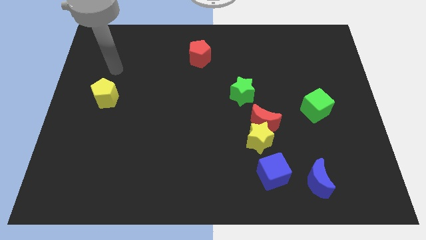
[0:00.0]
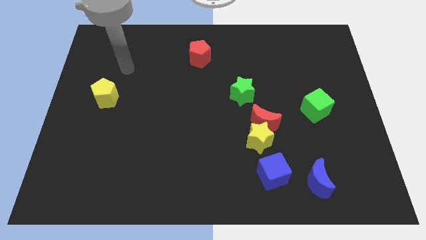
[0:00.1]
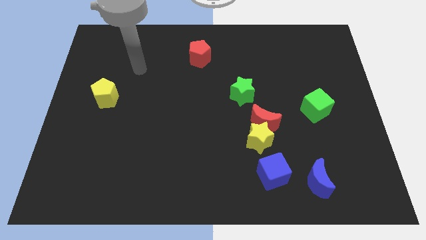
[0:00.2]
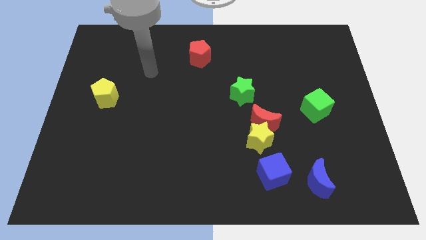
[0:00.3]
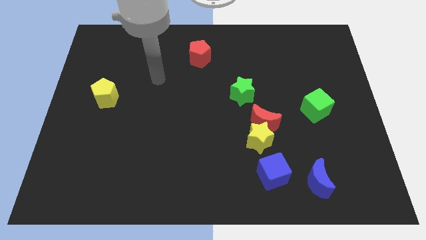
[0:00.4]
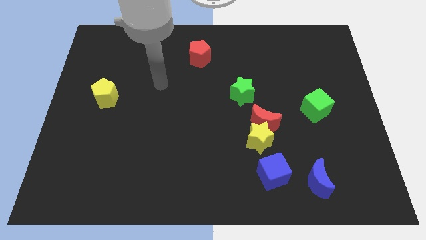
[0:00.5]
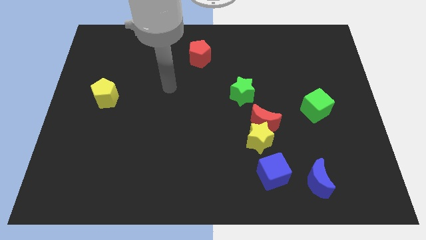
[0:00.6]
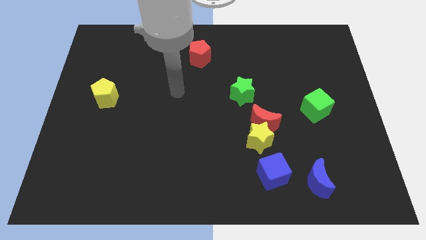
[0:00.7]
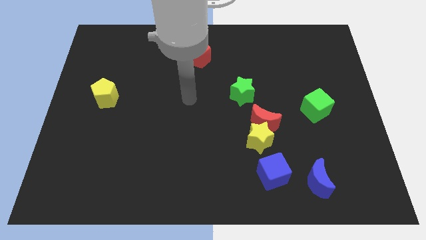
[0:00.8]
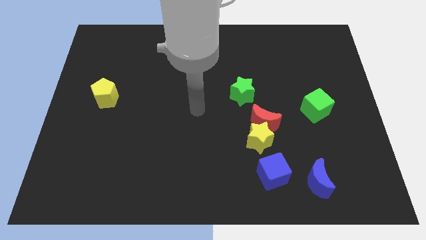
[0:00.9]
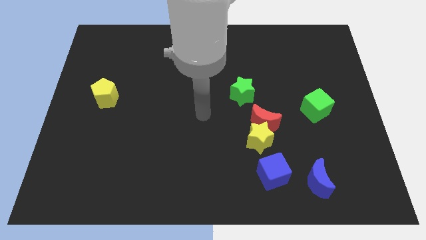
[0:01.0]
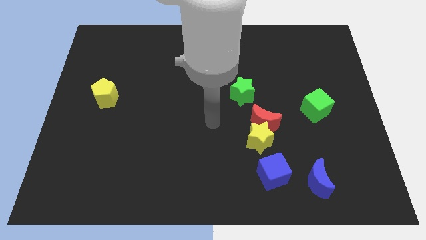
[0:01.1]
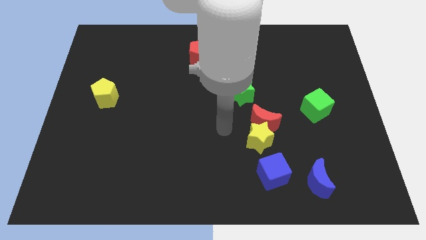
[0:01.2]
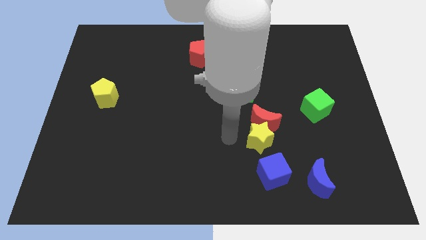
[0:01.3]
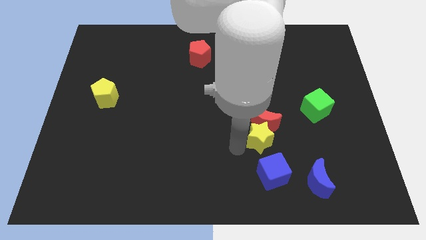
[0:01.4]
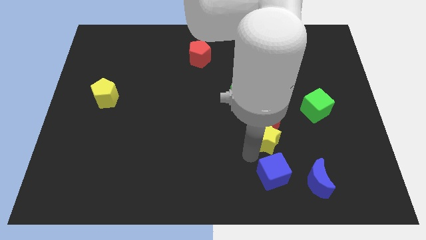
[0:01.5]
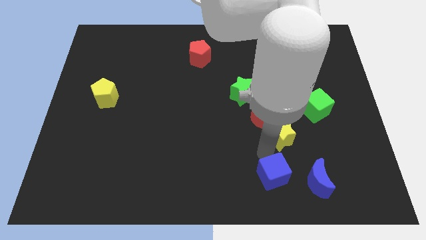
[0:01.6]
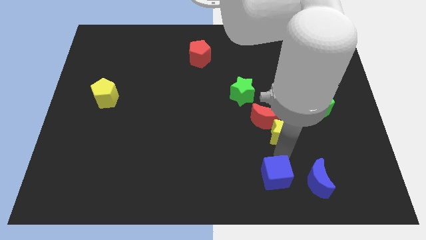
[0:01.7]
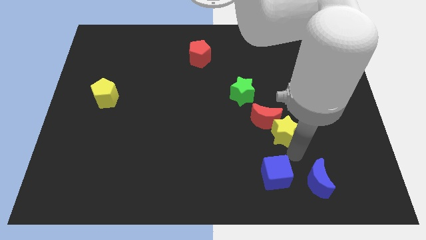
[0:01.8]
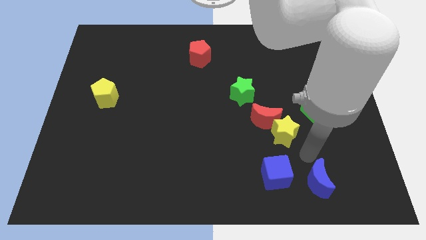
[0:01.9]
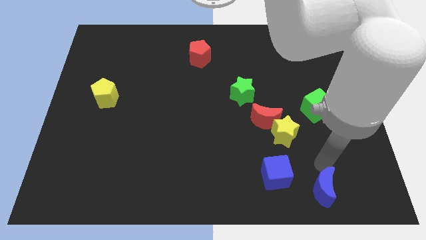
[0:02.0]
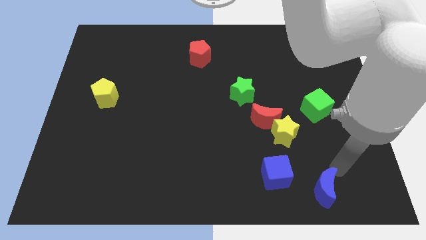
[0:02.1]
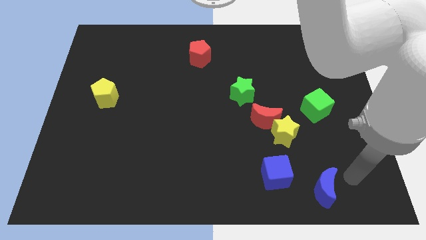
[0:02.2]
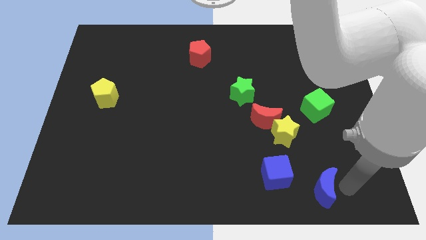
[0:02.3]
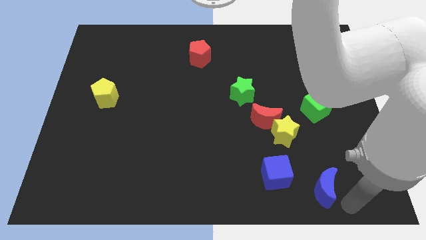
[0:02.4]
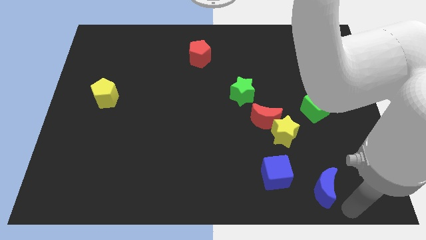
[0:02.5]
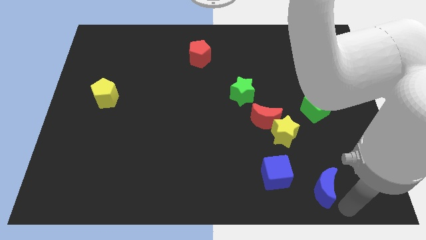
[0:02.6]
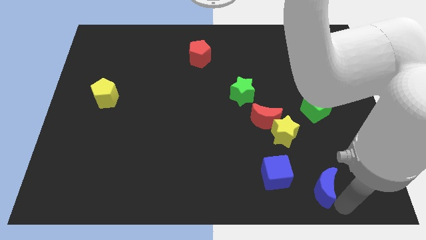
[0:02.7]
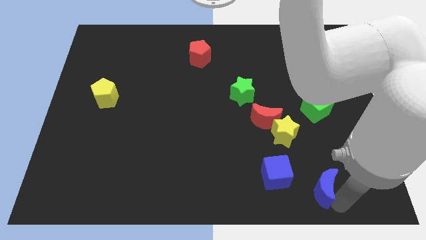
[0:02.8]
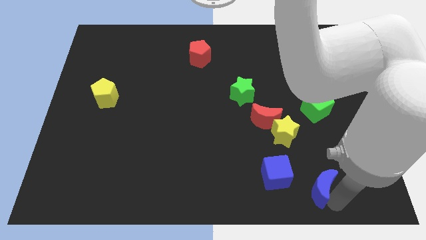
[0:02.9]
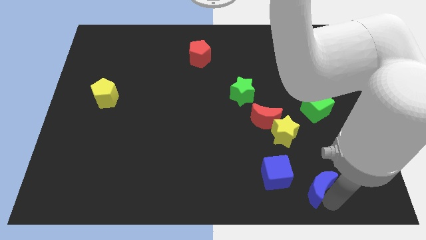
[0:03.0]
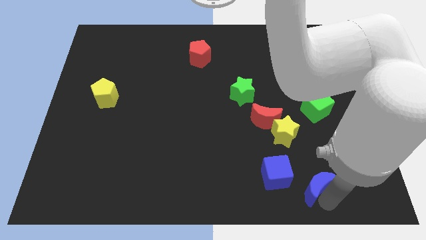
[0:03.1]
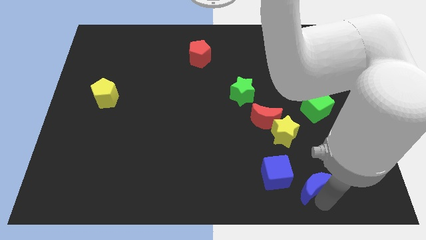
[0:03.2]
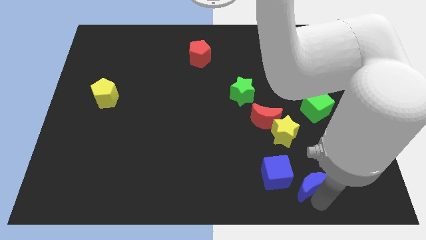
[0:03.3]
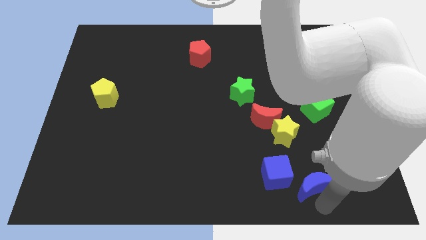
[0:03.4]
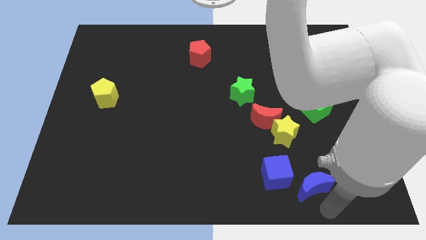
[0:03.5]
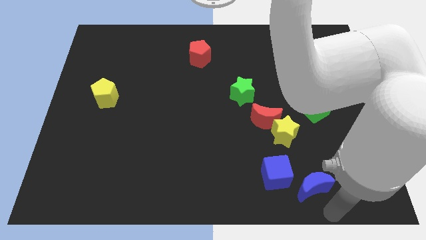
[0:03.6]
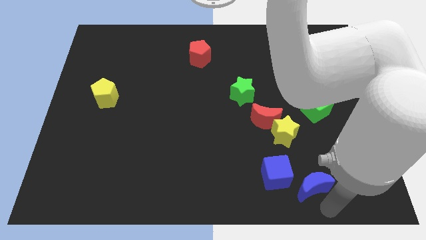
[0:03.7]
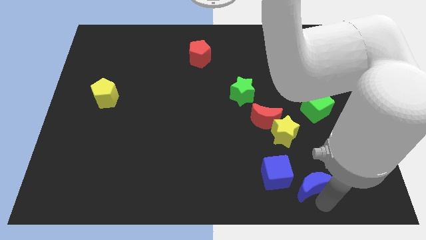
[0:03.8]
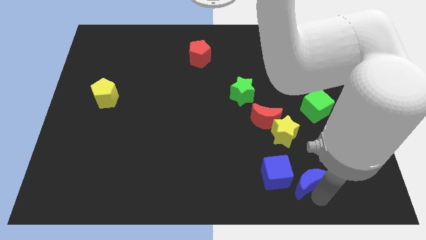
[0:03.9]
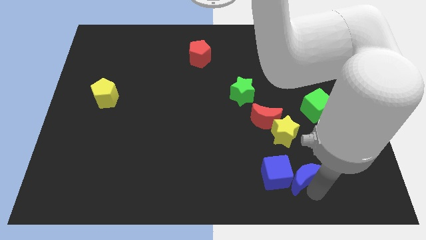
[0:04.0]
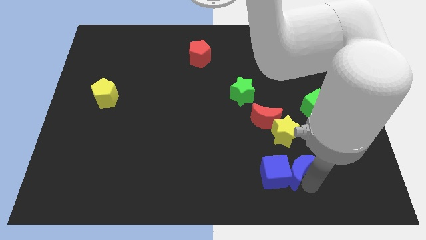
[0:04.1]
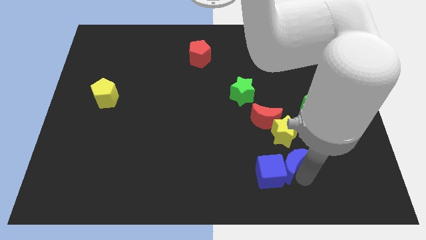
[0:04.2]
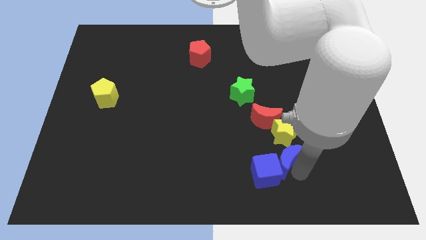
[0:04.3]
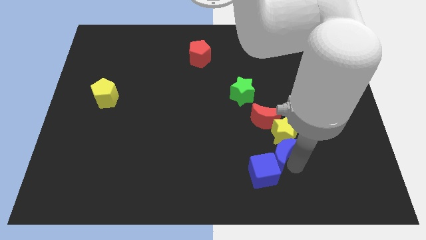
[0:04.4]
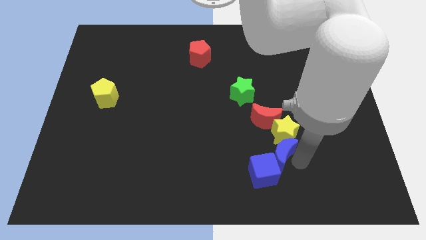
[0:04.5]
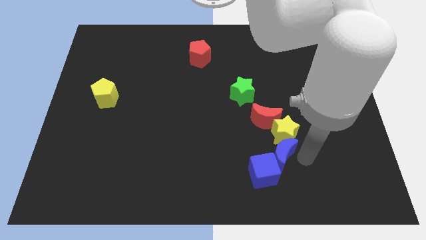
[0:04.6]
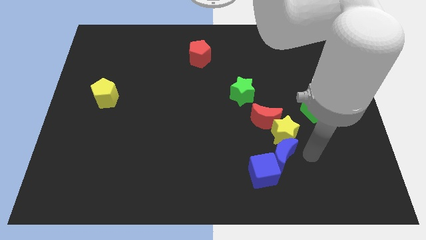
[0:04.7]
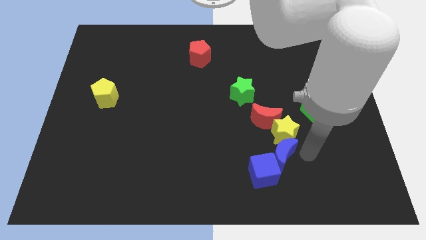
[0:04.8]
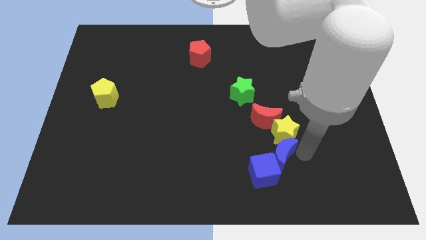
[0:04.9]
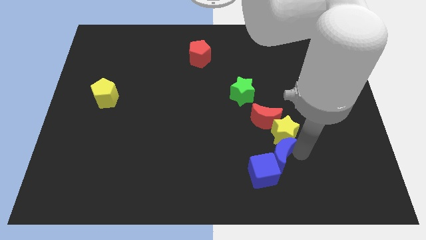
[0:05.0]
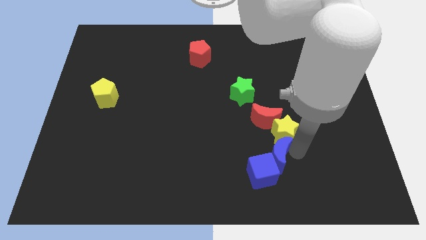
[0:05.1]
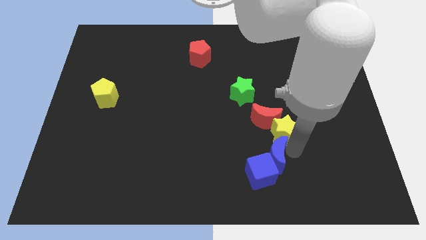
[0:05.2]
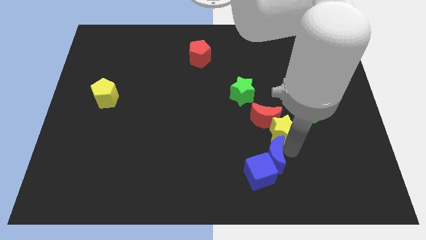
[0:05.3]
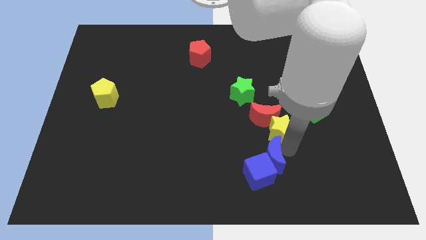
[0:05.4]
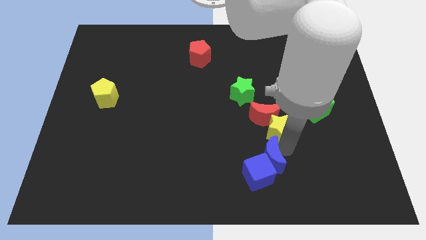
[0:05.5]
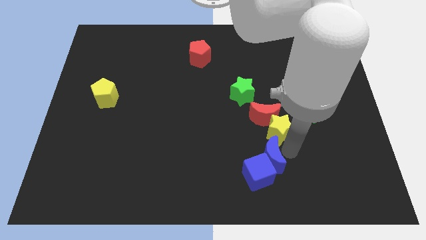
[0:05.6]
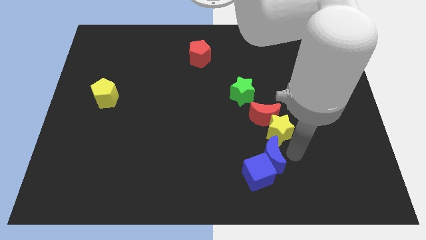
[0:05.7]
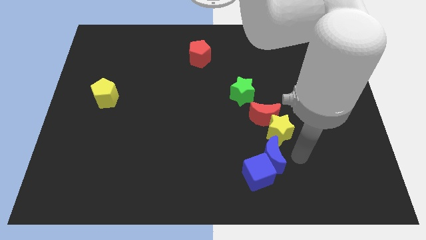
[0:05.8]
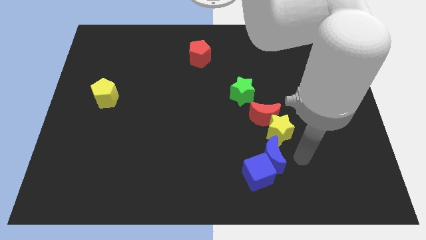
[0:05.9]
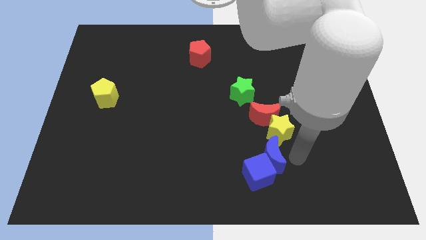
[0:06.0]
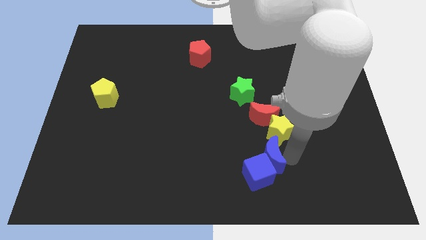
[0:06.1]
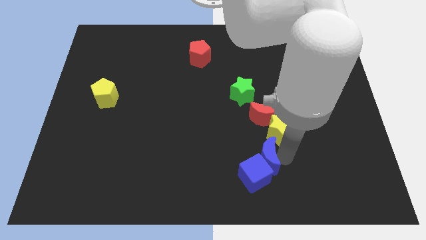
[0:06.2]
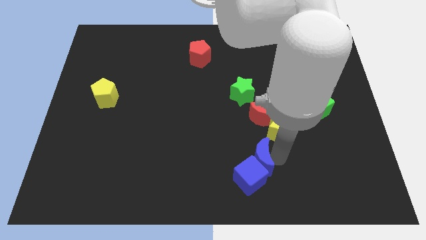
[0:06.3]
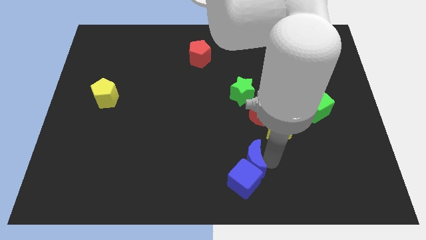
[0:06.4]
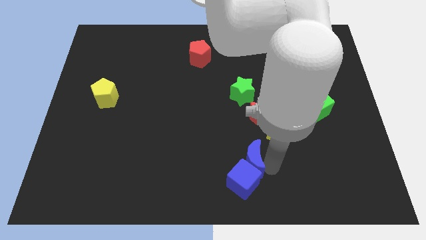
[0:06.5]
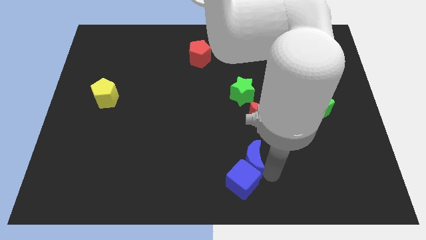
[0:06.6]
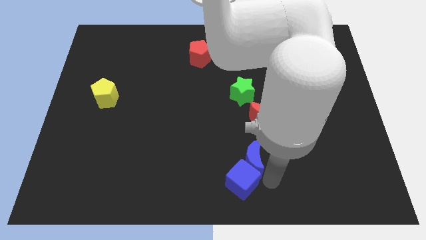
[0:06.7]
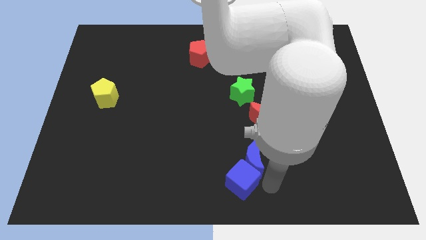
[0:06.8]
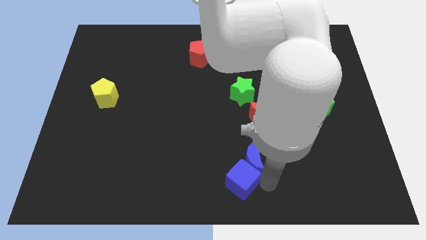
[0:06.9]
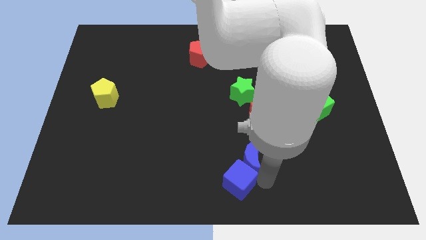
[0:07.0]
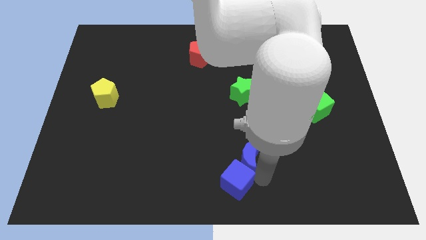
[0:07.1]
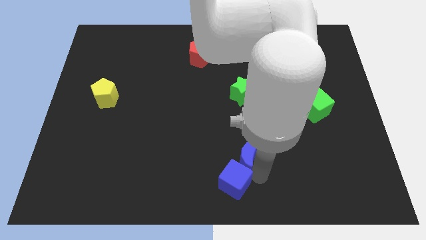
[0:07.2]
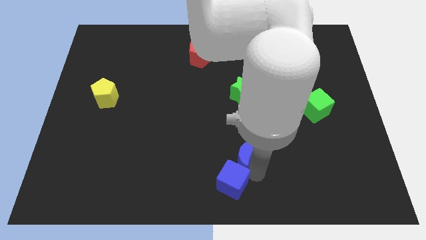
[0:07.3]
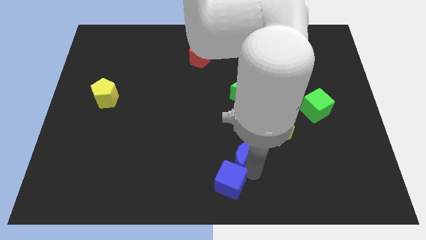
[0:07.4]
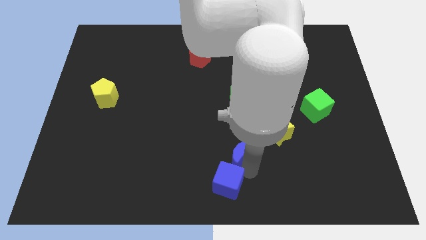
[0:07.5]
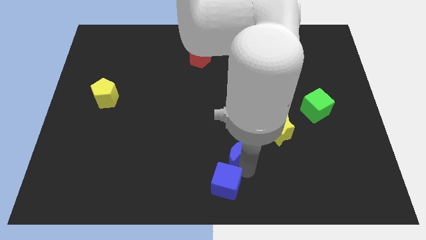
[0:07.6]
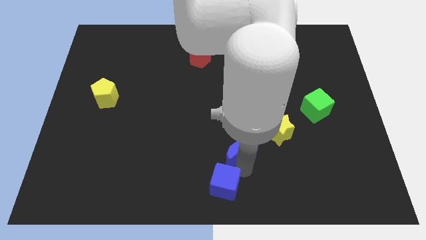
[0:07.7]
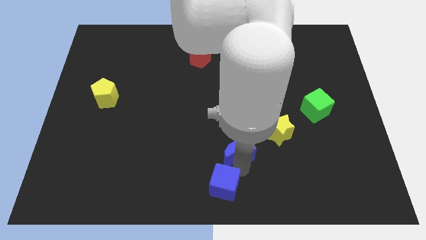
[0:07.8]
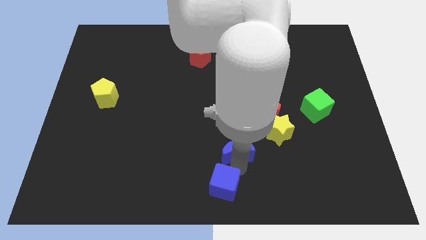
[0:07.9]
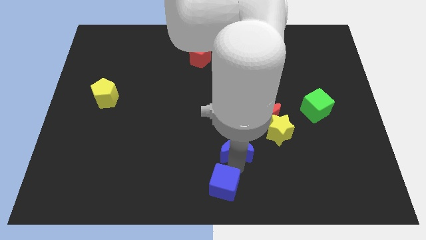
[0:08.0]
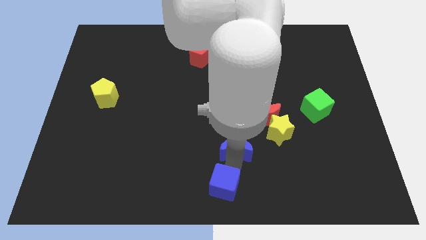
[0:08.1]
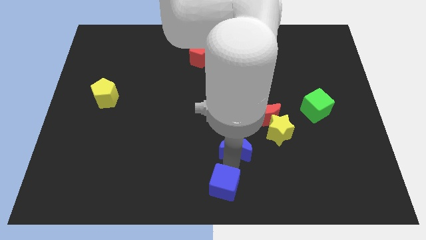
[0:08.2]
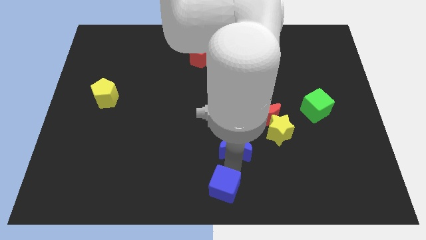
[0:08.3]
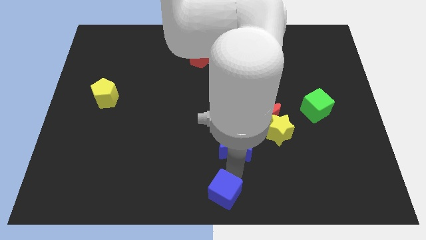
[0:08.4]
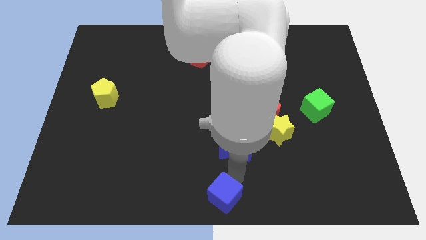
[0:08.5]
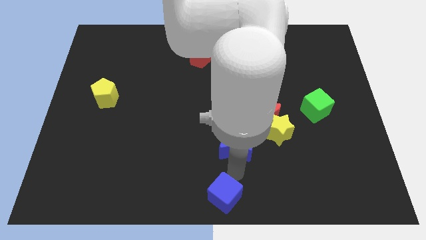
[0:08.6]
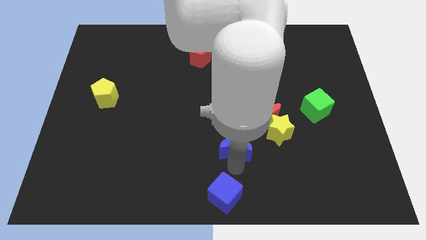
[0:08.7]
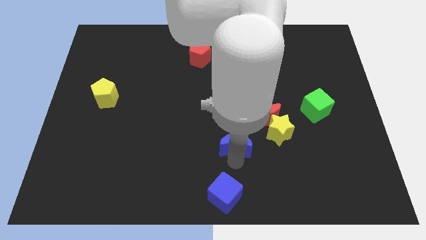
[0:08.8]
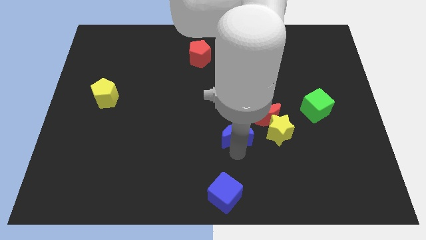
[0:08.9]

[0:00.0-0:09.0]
move the blue moon to the middle
